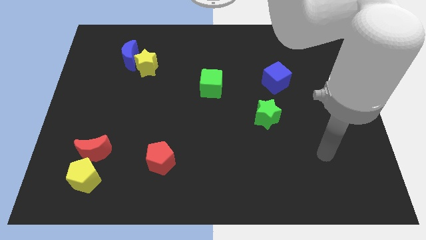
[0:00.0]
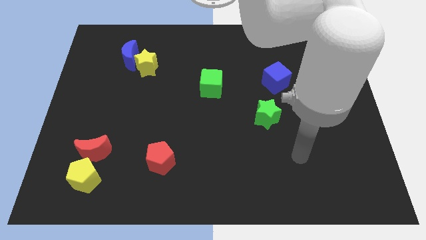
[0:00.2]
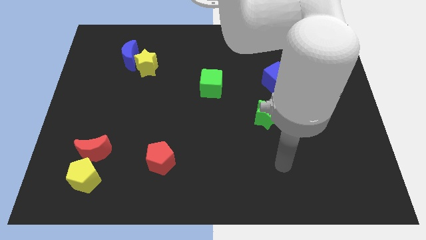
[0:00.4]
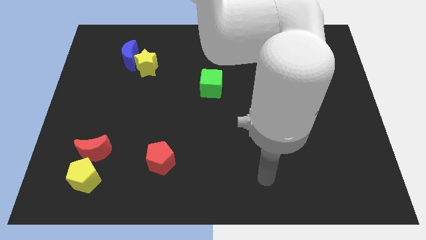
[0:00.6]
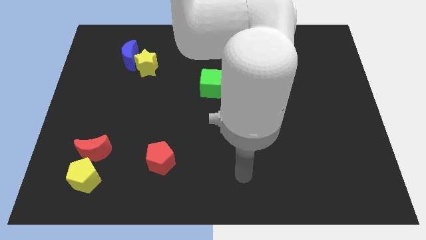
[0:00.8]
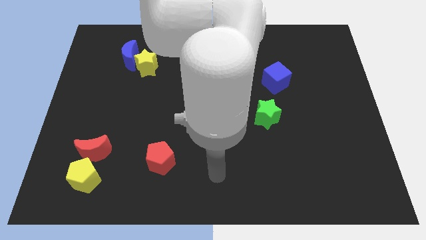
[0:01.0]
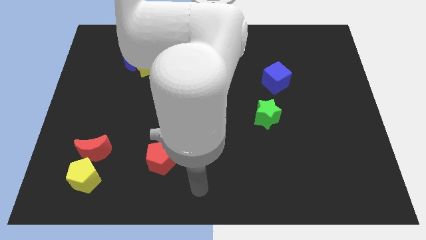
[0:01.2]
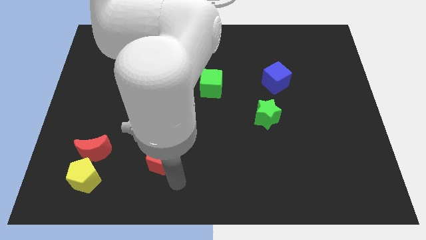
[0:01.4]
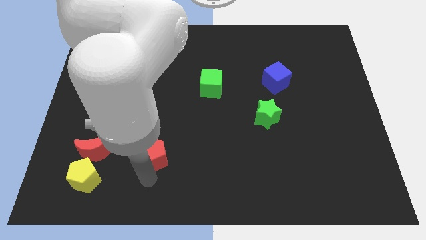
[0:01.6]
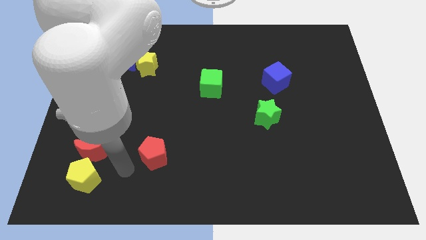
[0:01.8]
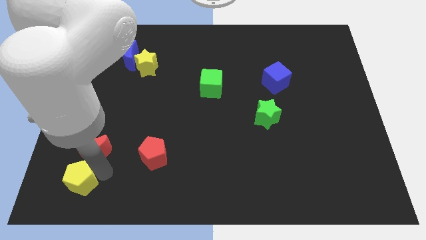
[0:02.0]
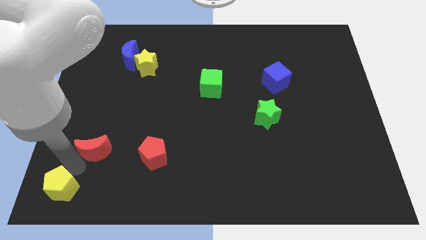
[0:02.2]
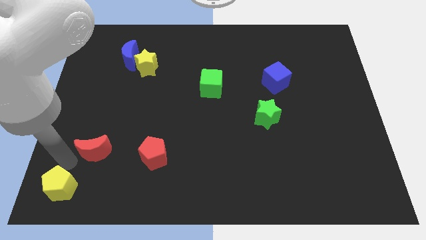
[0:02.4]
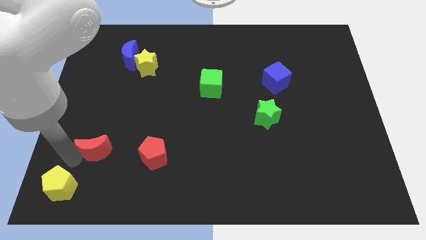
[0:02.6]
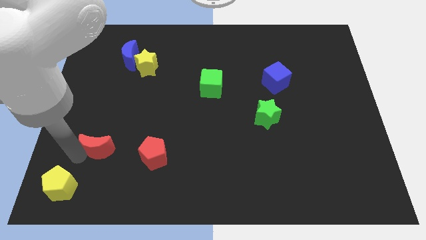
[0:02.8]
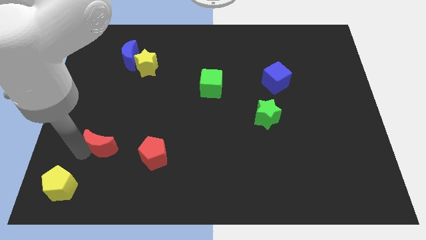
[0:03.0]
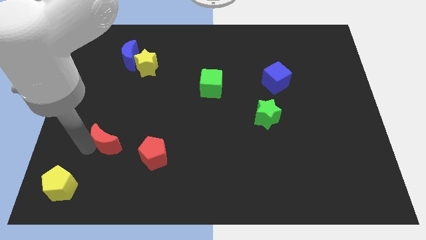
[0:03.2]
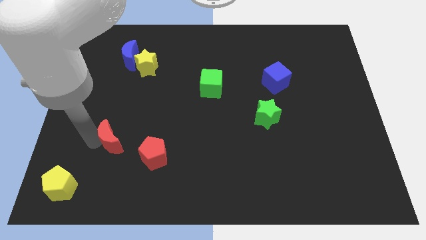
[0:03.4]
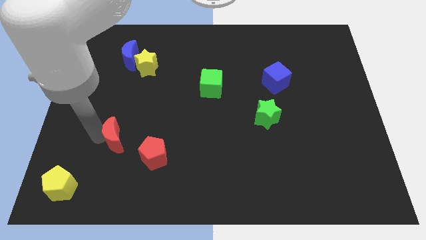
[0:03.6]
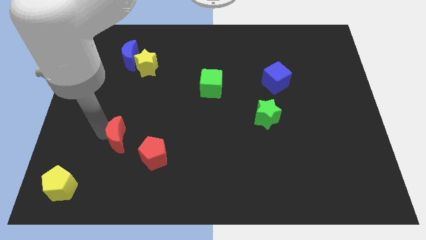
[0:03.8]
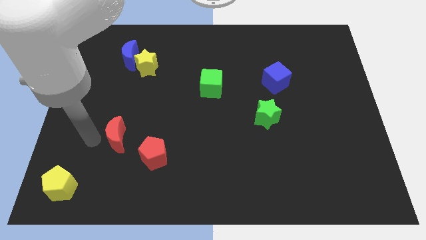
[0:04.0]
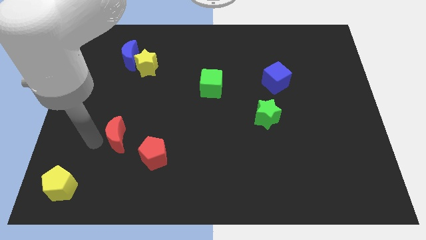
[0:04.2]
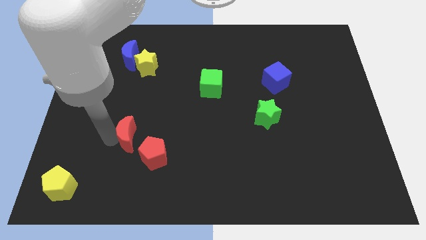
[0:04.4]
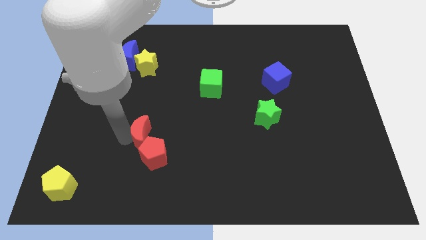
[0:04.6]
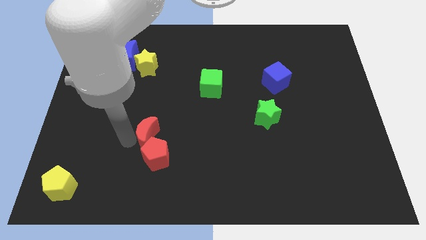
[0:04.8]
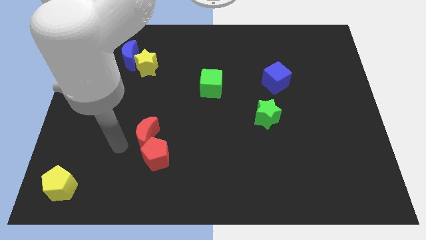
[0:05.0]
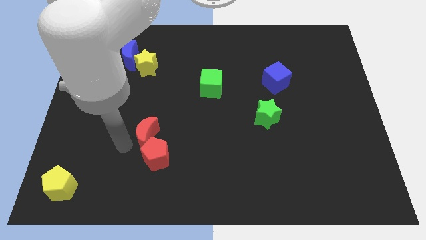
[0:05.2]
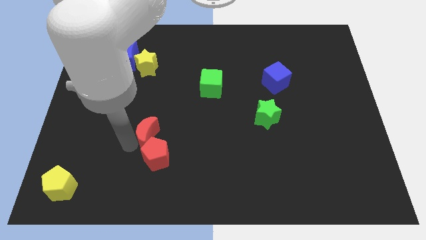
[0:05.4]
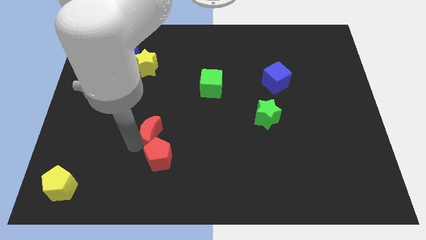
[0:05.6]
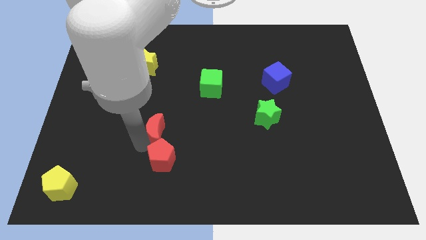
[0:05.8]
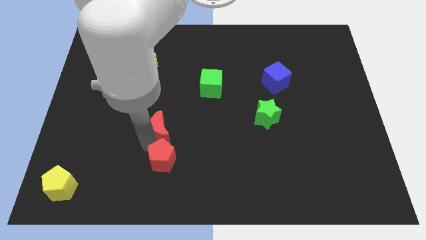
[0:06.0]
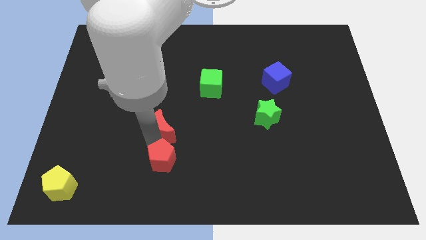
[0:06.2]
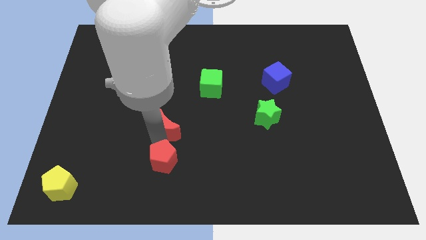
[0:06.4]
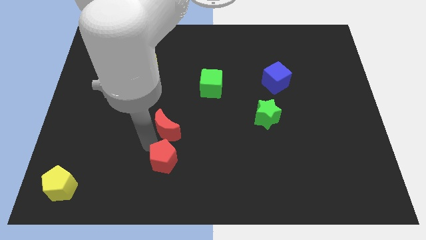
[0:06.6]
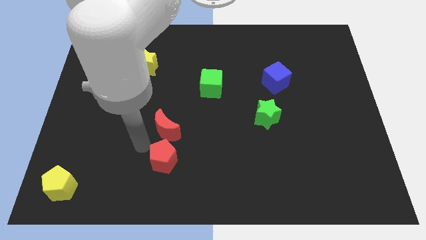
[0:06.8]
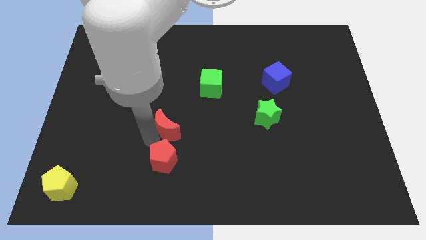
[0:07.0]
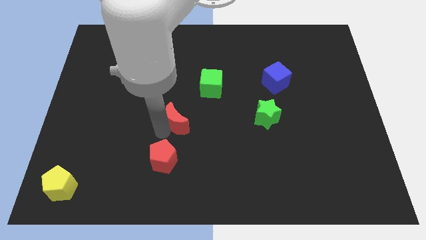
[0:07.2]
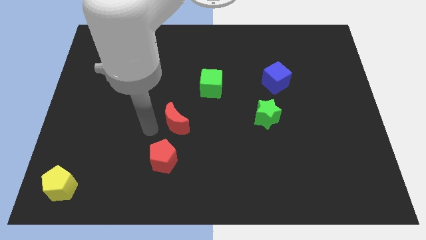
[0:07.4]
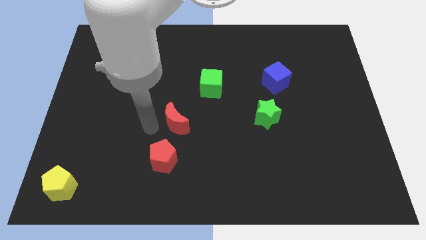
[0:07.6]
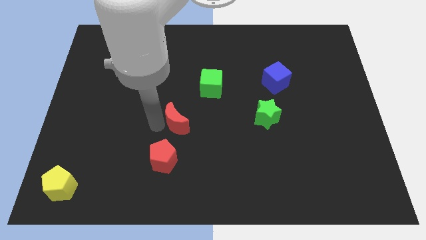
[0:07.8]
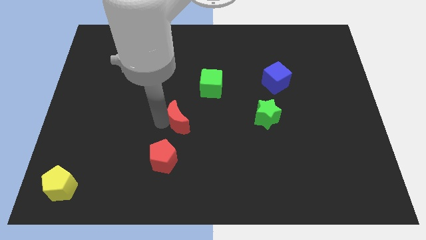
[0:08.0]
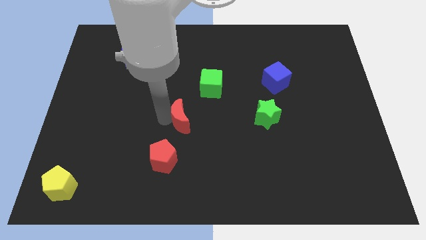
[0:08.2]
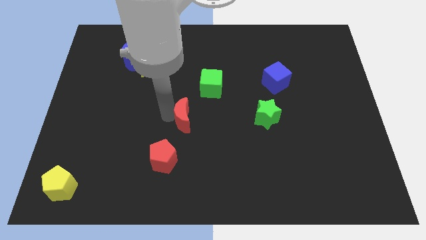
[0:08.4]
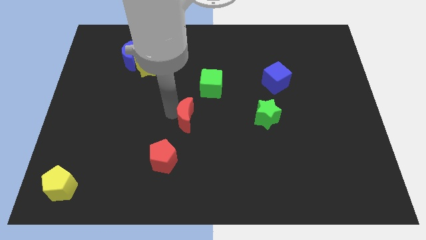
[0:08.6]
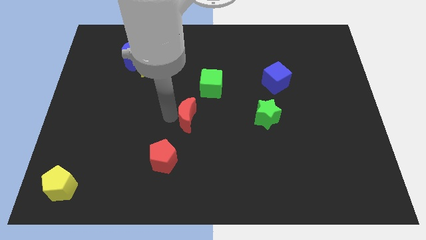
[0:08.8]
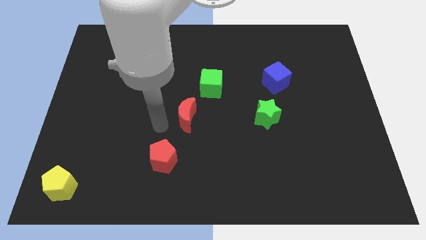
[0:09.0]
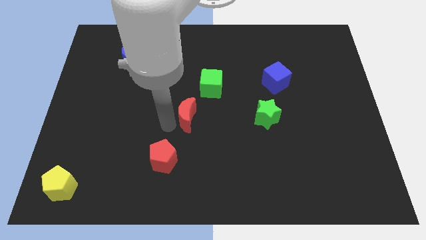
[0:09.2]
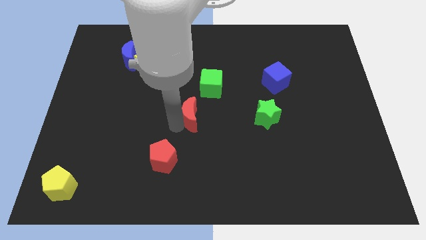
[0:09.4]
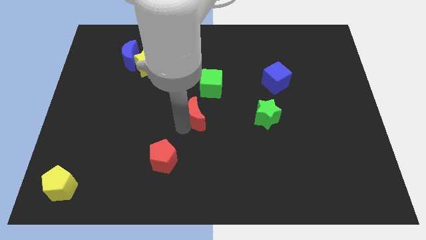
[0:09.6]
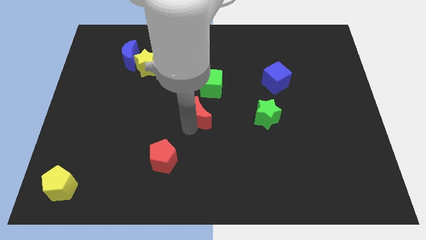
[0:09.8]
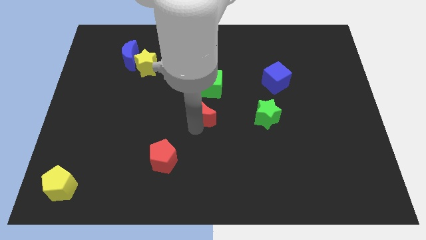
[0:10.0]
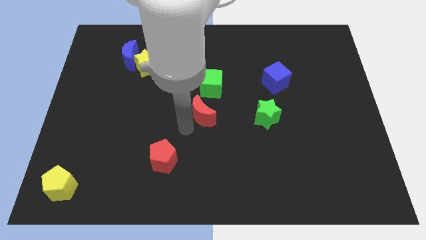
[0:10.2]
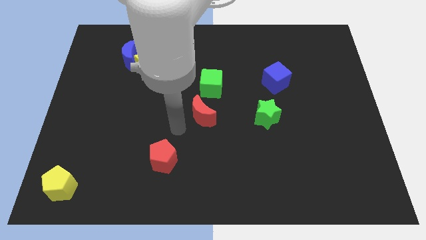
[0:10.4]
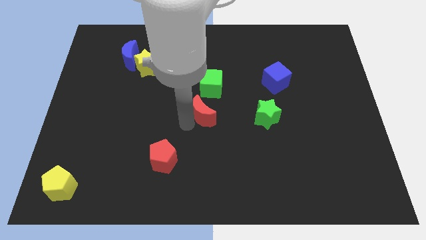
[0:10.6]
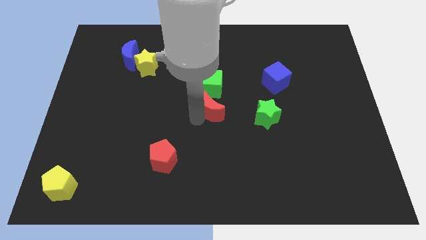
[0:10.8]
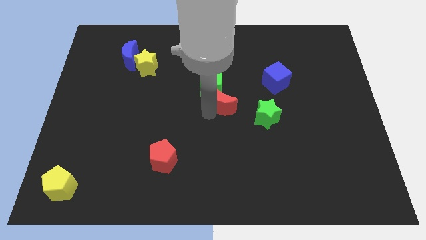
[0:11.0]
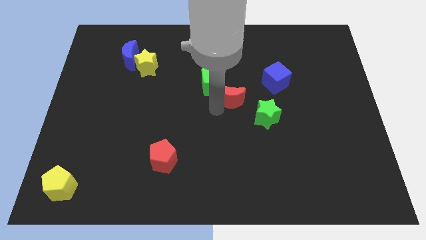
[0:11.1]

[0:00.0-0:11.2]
slide the red moon to the right side of the green cube

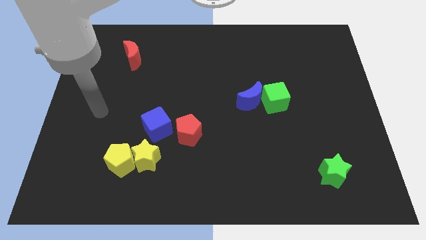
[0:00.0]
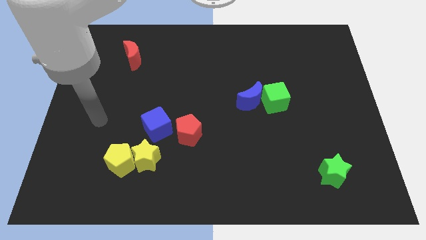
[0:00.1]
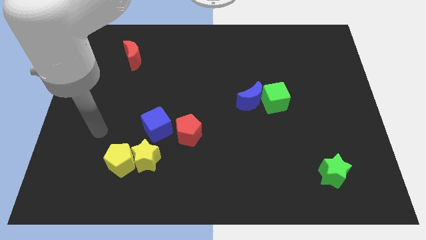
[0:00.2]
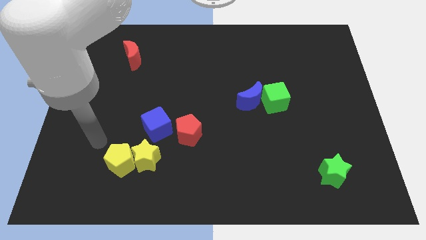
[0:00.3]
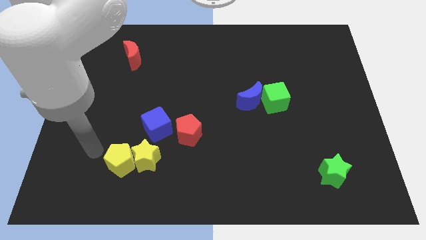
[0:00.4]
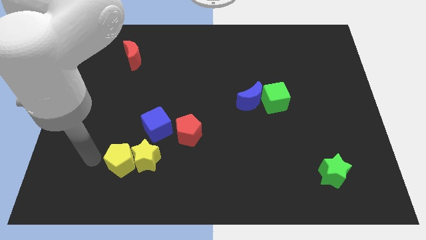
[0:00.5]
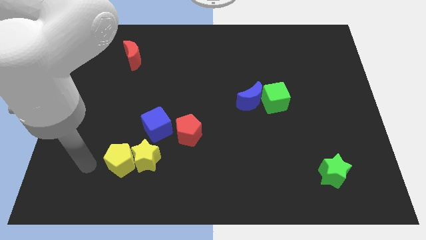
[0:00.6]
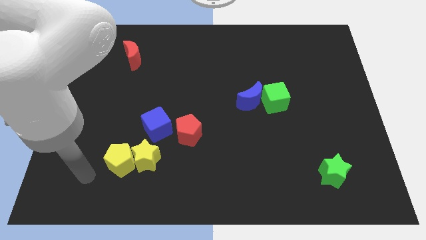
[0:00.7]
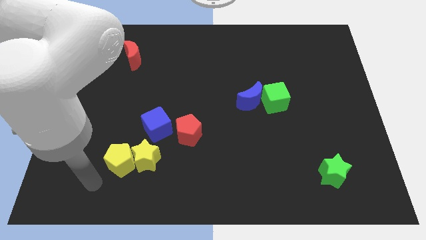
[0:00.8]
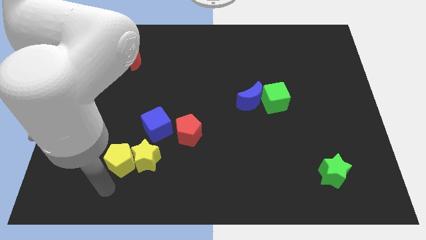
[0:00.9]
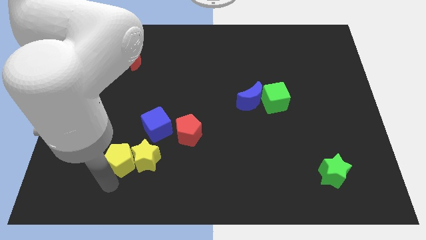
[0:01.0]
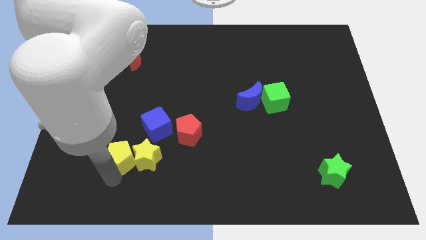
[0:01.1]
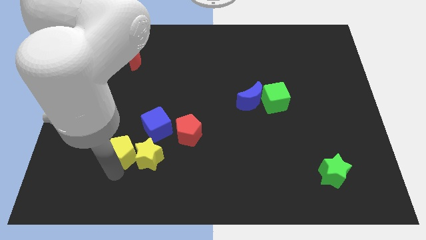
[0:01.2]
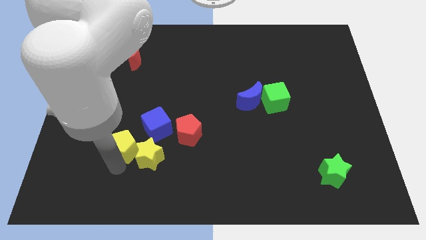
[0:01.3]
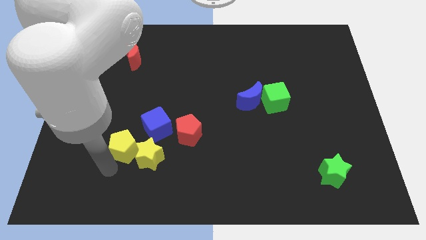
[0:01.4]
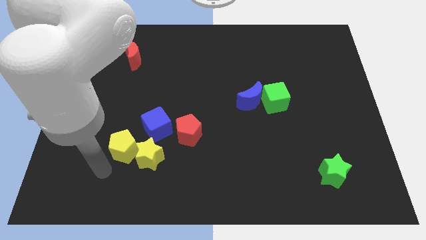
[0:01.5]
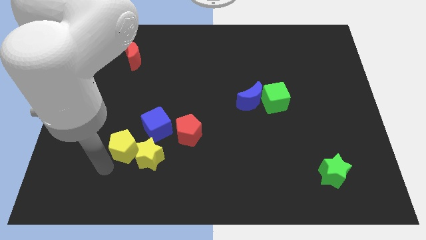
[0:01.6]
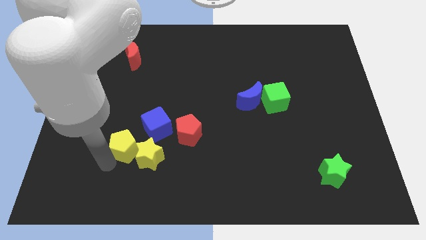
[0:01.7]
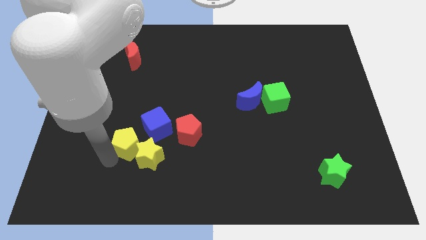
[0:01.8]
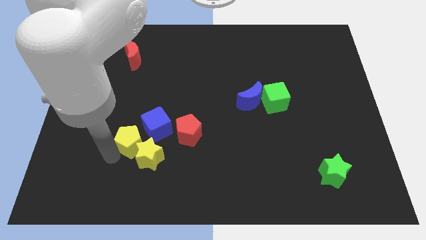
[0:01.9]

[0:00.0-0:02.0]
push the yellow pentagon to the top side of the yellow star
